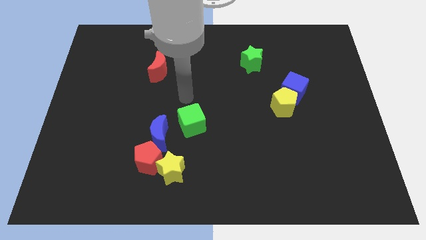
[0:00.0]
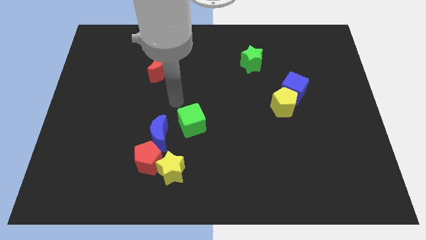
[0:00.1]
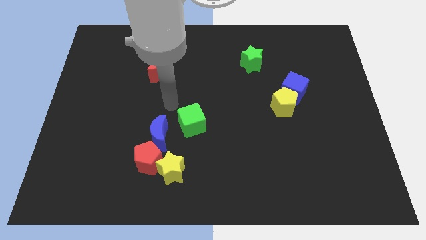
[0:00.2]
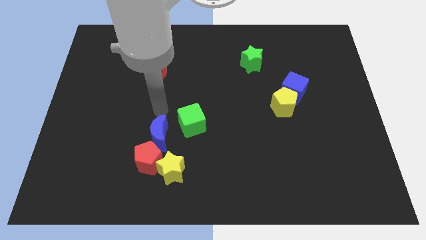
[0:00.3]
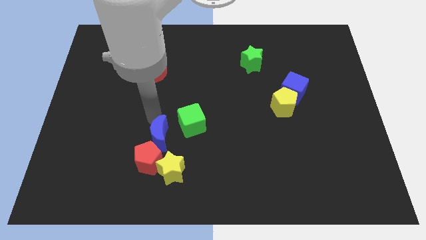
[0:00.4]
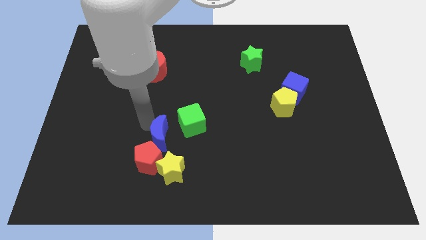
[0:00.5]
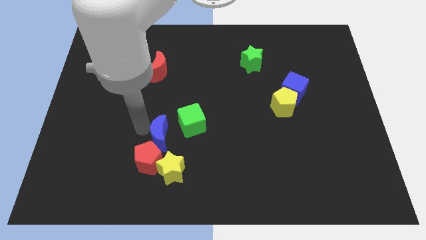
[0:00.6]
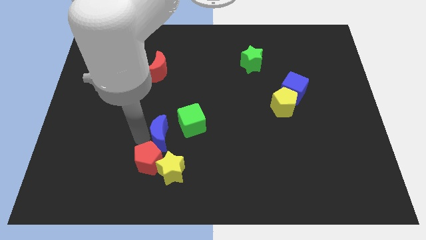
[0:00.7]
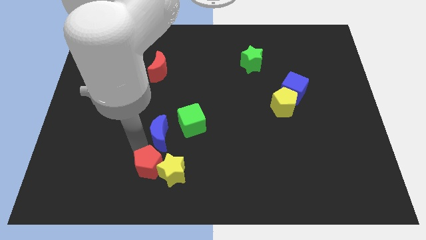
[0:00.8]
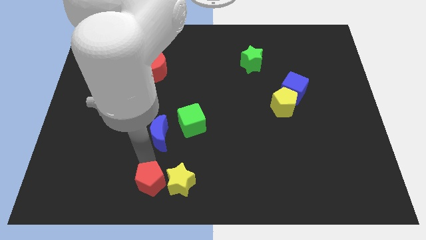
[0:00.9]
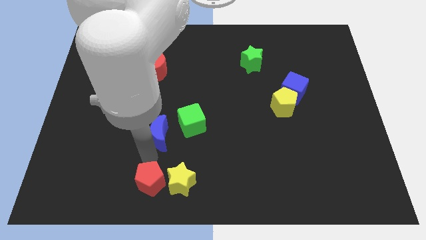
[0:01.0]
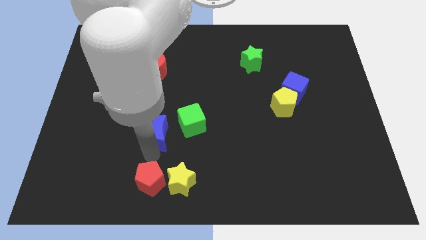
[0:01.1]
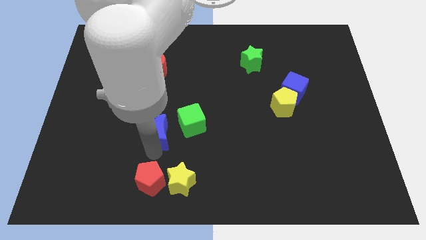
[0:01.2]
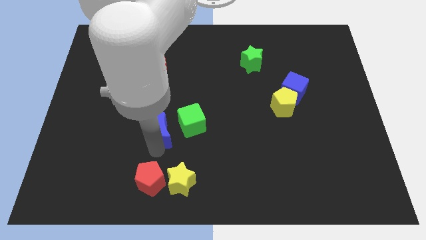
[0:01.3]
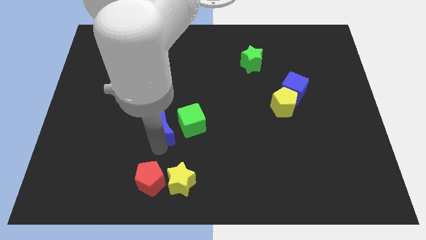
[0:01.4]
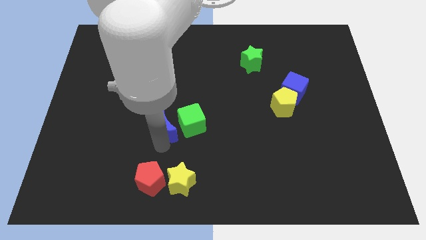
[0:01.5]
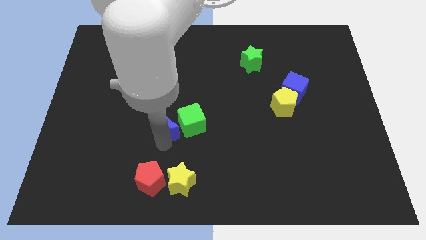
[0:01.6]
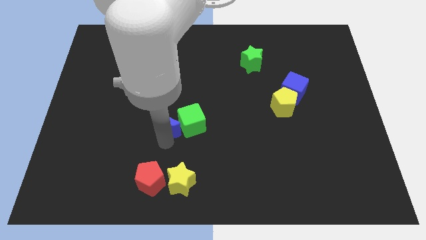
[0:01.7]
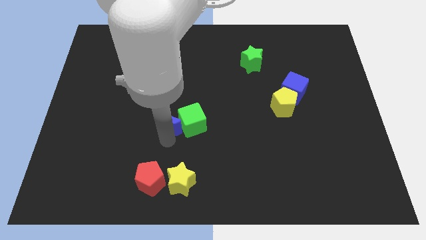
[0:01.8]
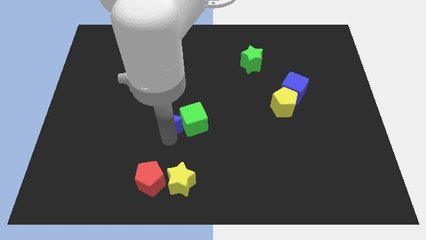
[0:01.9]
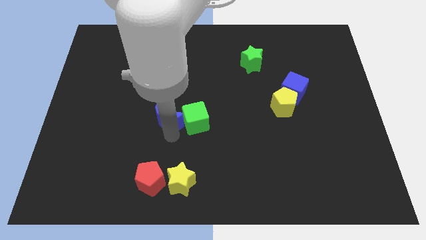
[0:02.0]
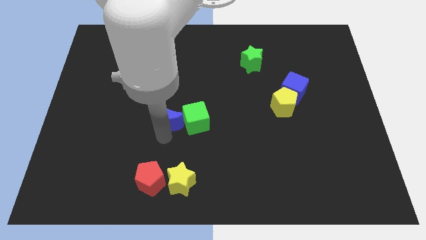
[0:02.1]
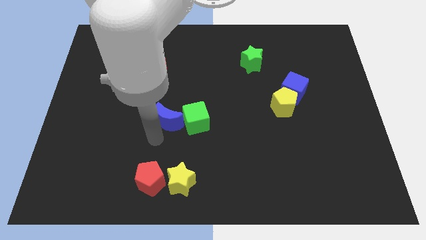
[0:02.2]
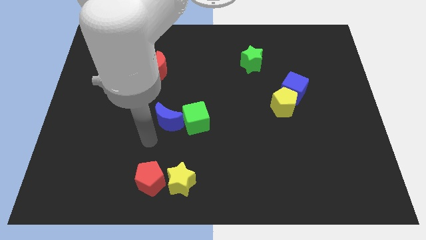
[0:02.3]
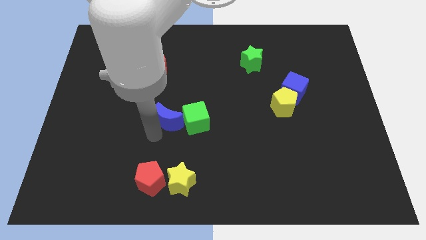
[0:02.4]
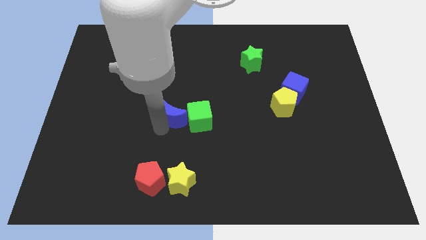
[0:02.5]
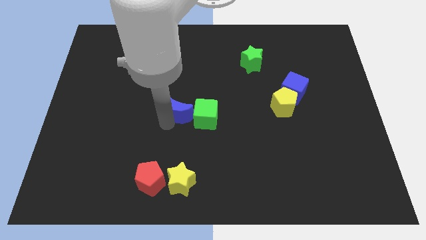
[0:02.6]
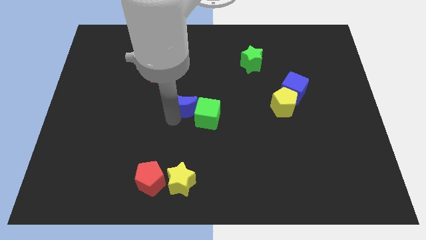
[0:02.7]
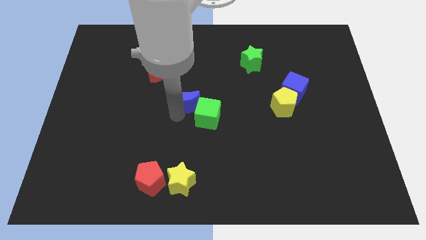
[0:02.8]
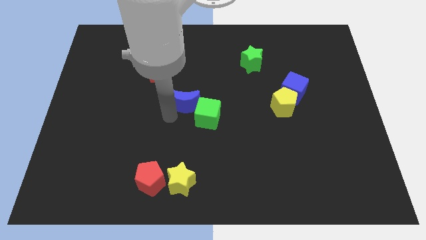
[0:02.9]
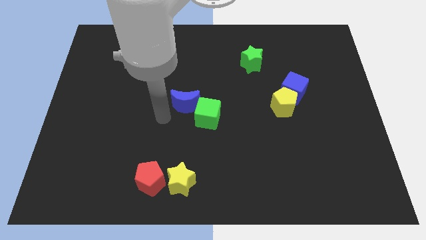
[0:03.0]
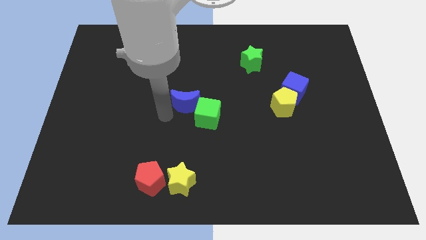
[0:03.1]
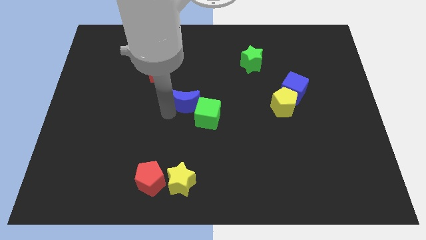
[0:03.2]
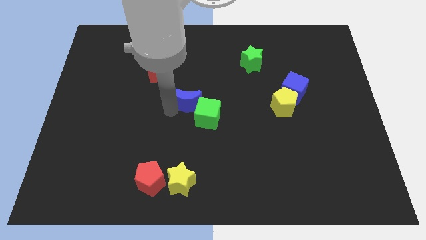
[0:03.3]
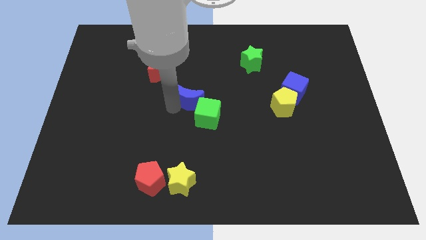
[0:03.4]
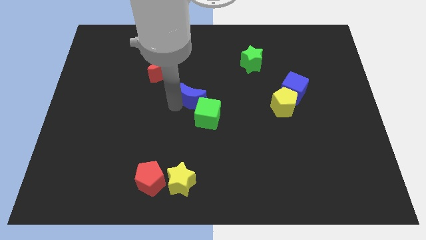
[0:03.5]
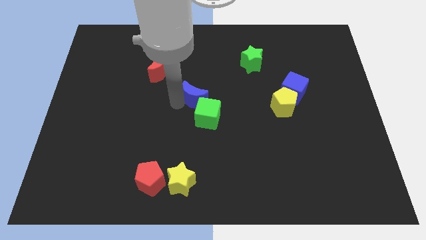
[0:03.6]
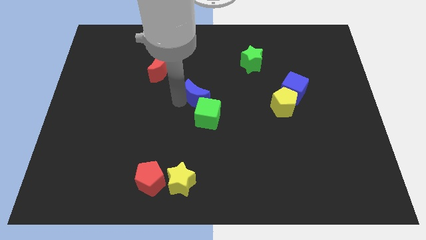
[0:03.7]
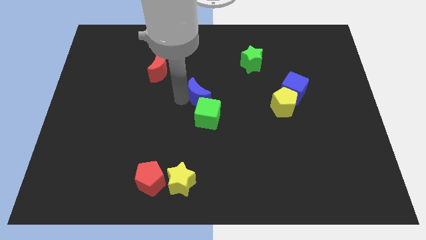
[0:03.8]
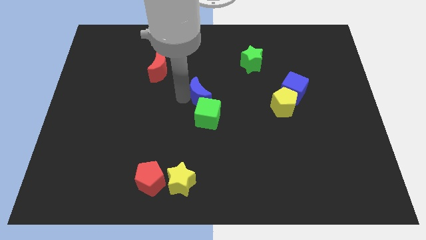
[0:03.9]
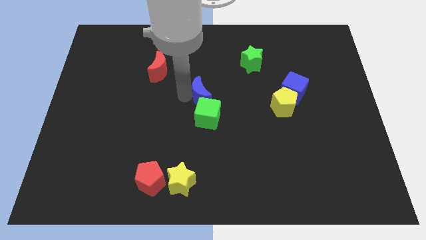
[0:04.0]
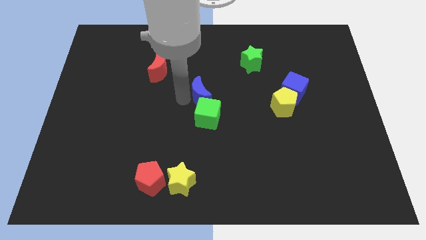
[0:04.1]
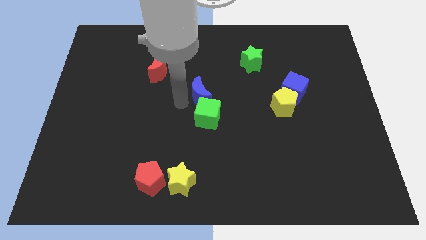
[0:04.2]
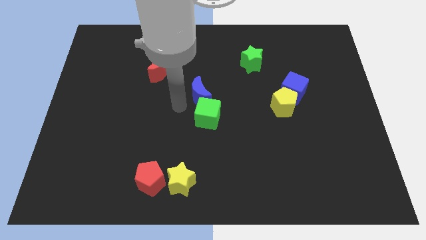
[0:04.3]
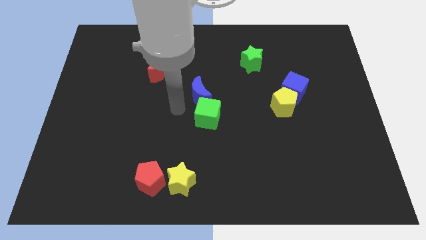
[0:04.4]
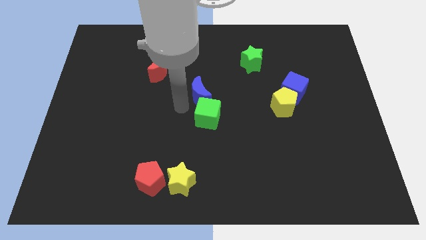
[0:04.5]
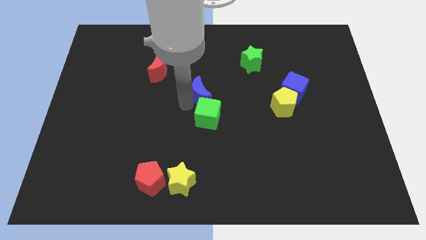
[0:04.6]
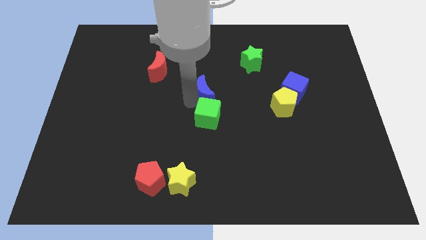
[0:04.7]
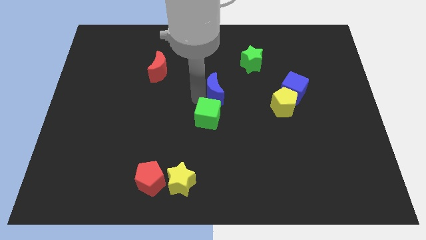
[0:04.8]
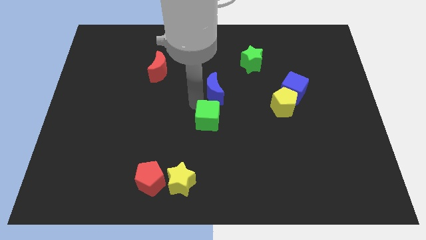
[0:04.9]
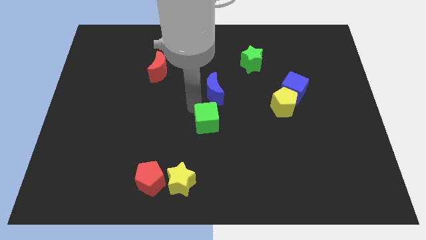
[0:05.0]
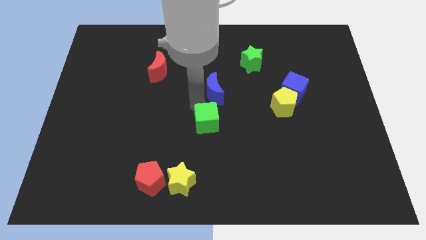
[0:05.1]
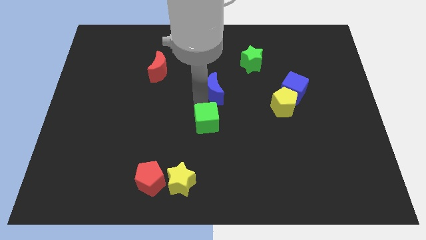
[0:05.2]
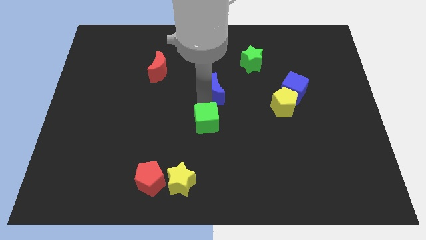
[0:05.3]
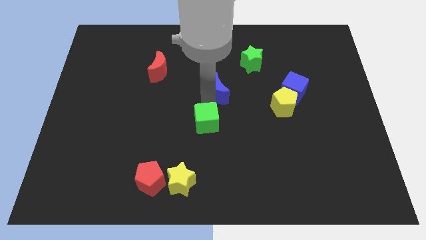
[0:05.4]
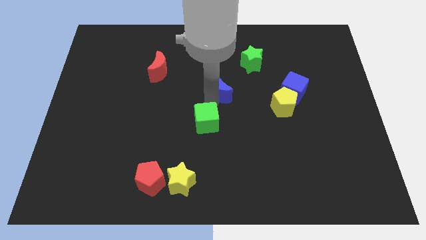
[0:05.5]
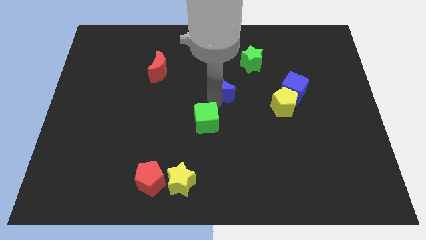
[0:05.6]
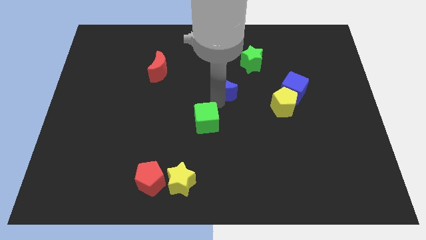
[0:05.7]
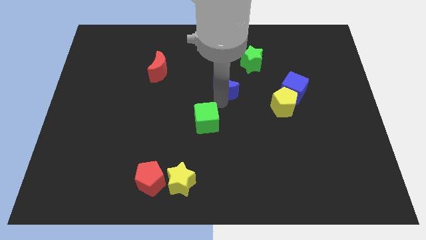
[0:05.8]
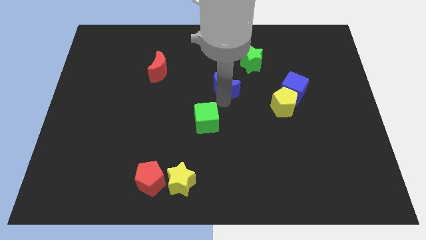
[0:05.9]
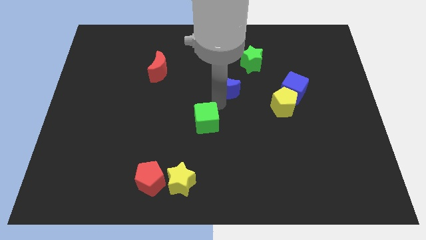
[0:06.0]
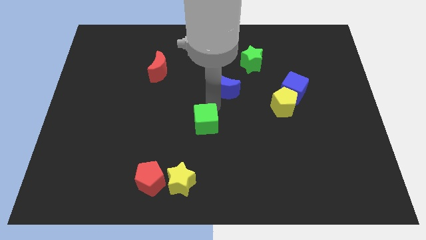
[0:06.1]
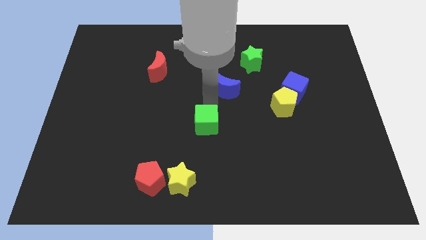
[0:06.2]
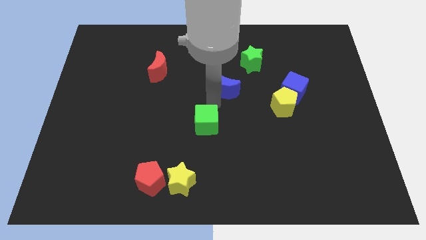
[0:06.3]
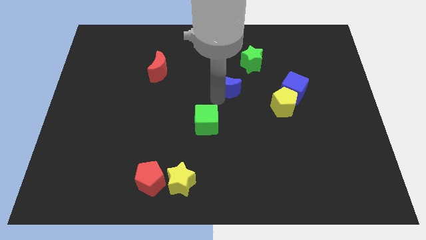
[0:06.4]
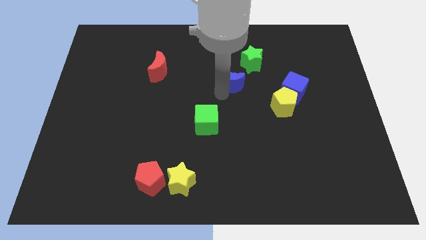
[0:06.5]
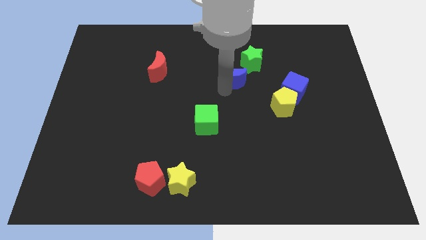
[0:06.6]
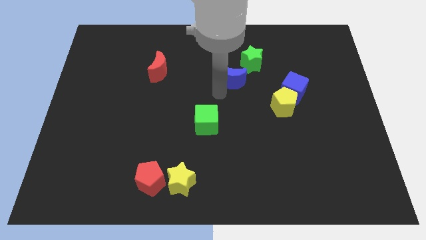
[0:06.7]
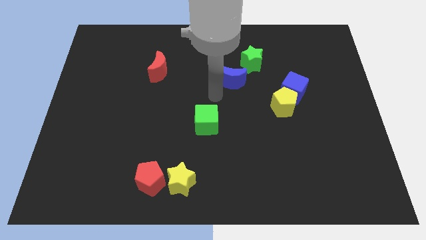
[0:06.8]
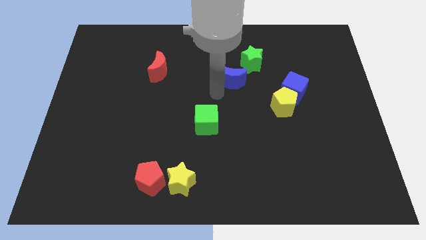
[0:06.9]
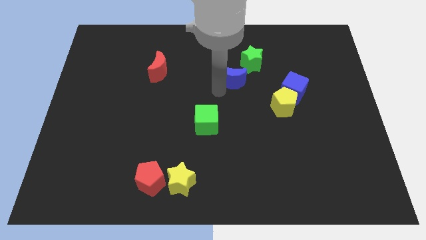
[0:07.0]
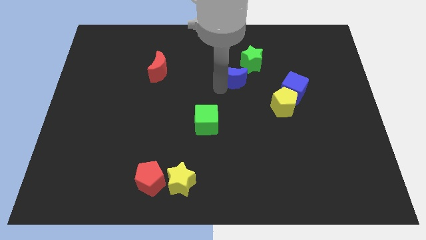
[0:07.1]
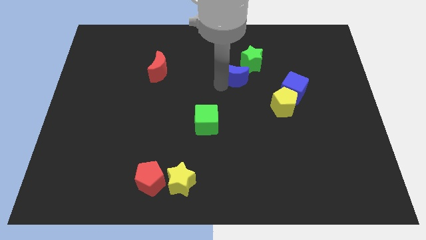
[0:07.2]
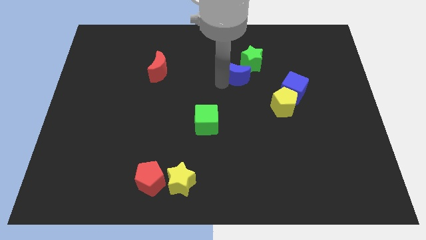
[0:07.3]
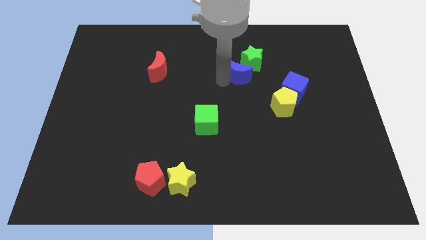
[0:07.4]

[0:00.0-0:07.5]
put the blue moon next to the green star
